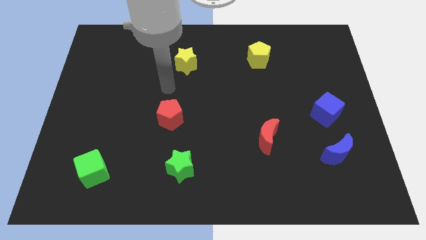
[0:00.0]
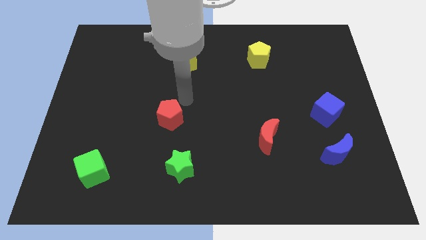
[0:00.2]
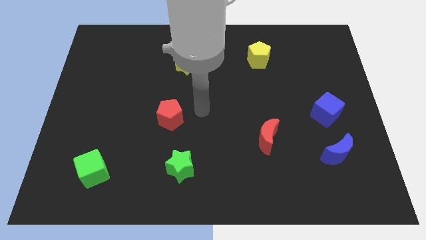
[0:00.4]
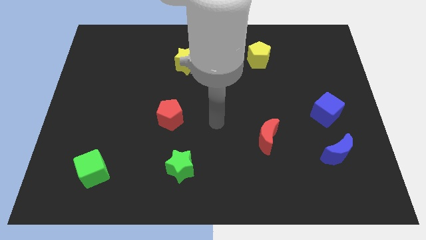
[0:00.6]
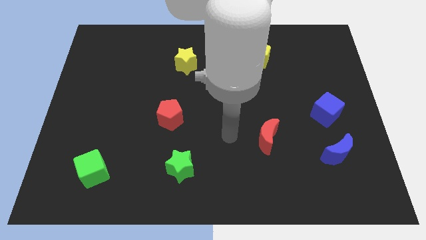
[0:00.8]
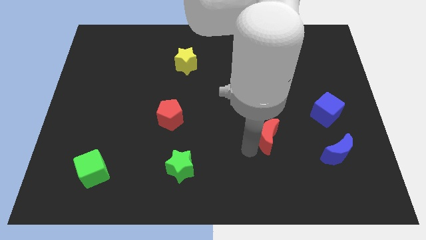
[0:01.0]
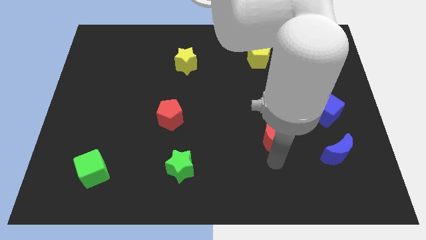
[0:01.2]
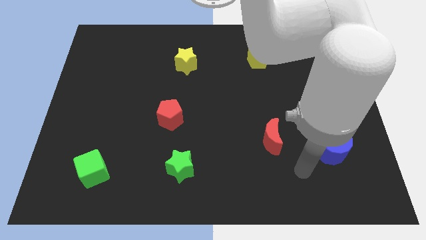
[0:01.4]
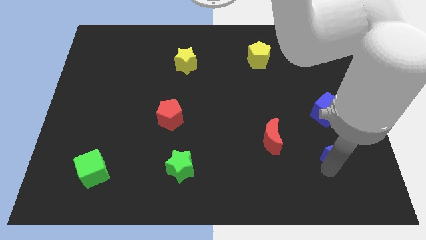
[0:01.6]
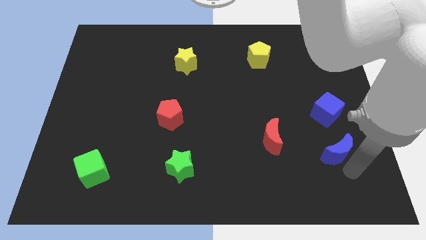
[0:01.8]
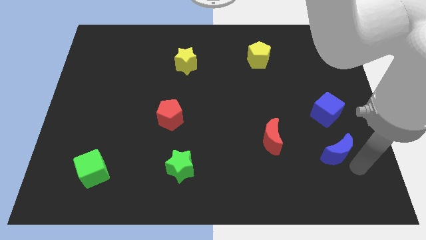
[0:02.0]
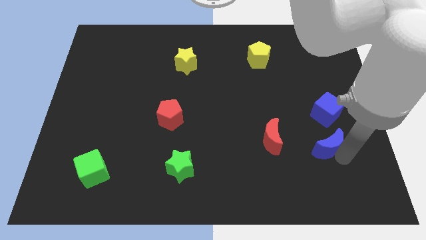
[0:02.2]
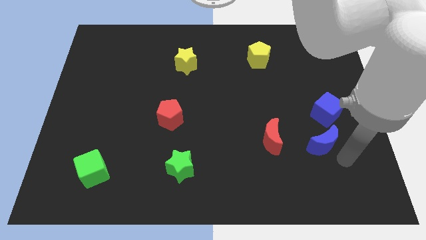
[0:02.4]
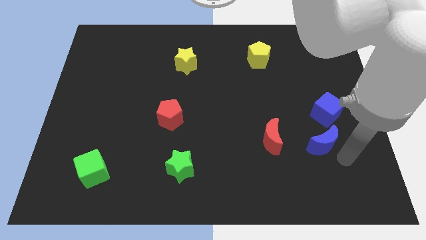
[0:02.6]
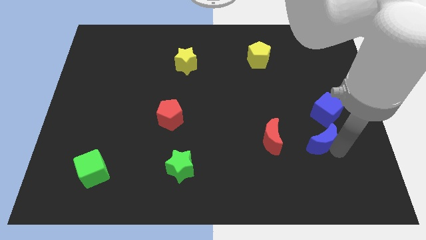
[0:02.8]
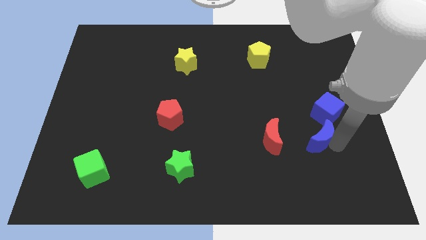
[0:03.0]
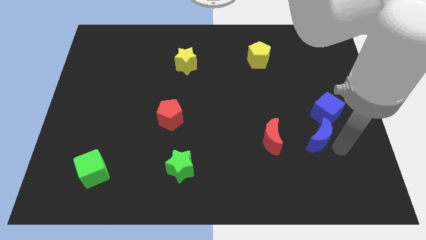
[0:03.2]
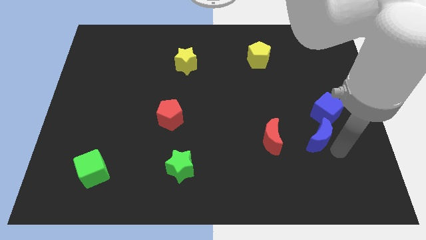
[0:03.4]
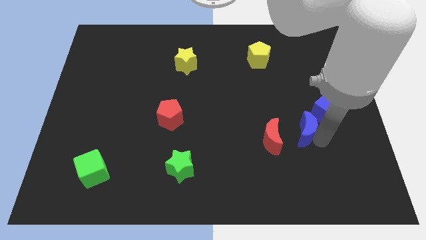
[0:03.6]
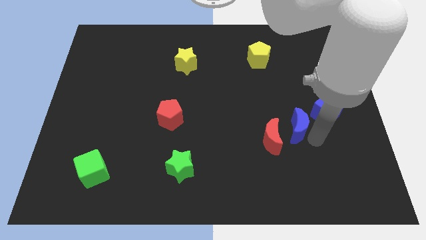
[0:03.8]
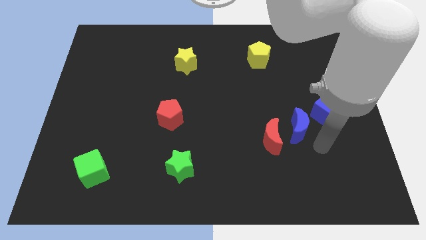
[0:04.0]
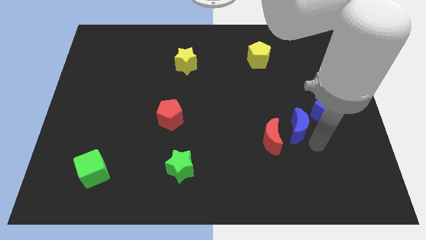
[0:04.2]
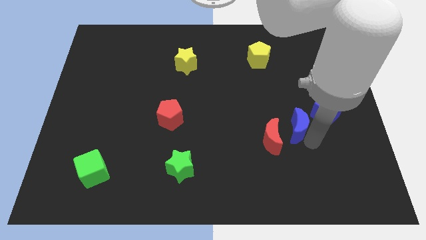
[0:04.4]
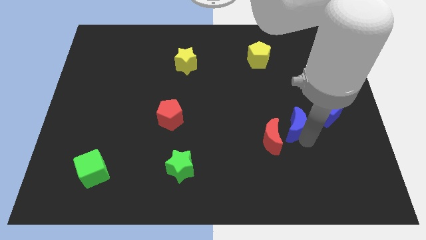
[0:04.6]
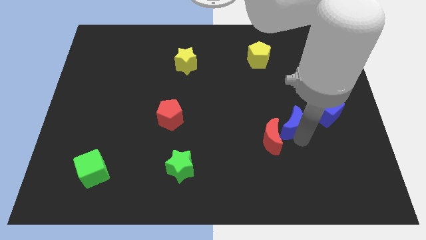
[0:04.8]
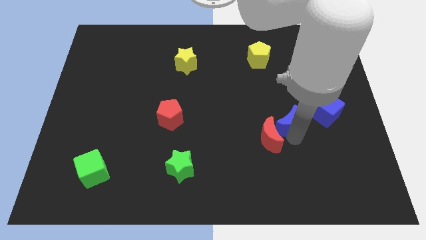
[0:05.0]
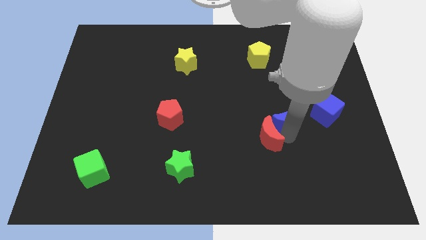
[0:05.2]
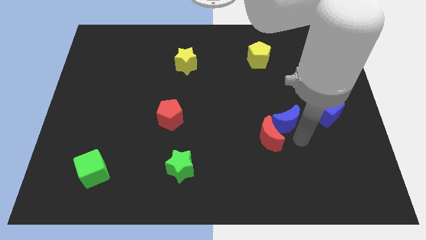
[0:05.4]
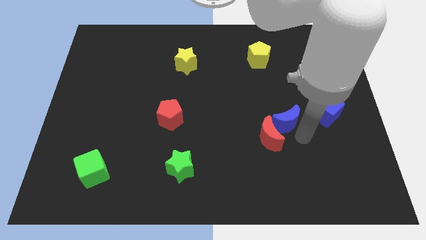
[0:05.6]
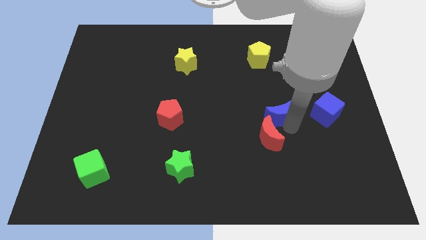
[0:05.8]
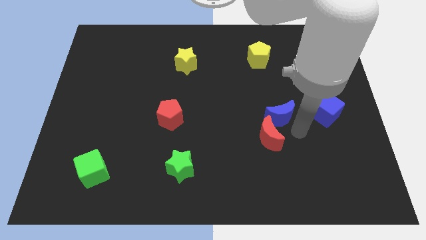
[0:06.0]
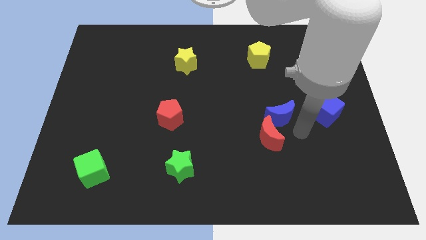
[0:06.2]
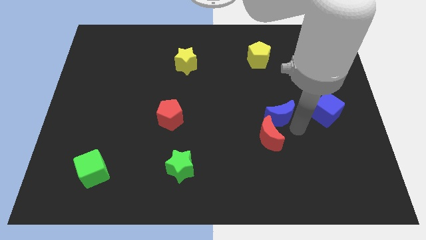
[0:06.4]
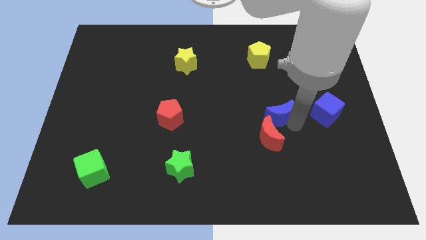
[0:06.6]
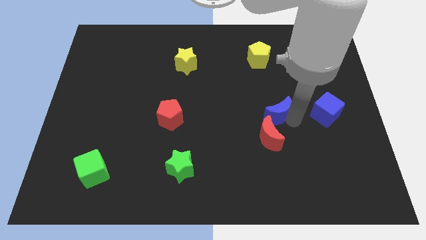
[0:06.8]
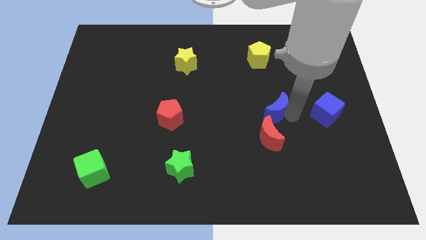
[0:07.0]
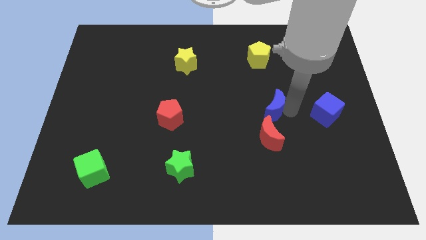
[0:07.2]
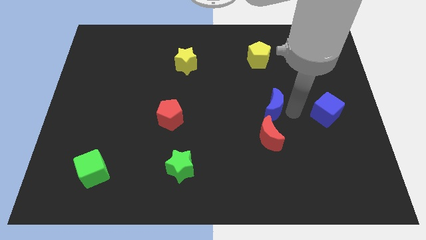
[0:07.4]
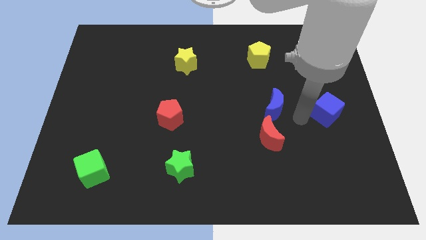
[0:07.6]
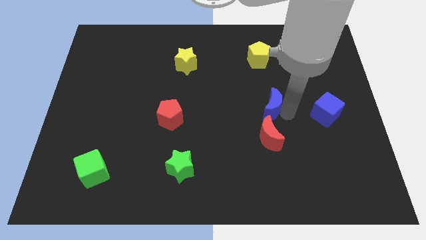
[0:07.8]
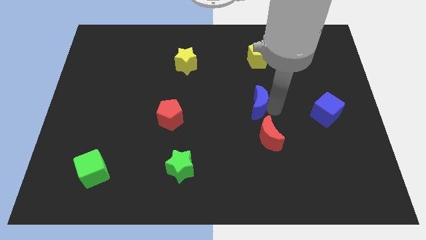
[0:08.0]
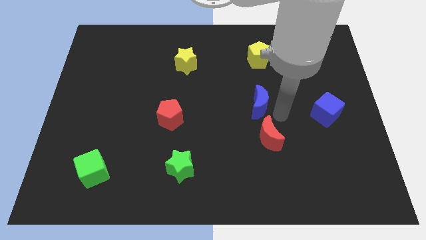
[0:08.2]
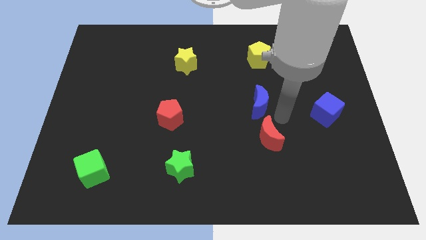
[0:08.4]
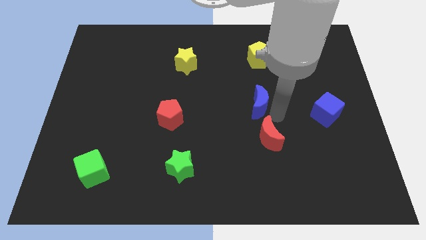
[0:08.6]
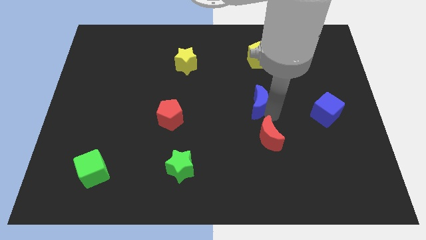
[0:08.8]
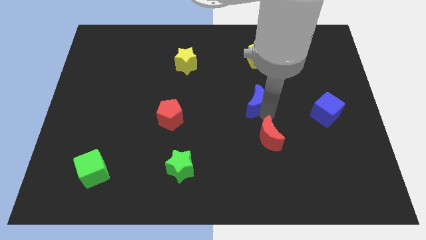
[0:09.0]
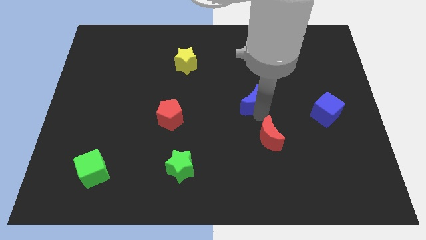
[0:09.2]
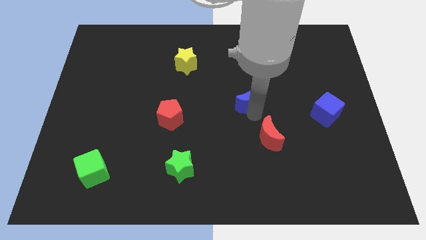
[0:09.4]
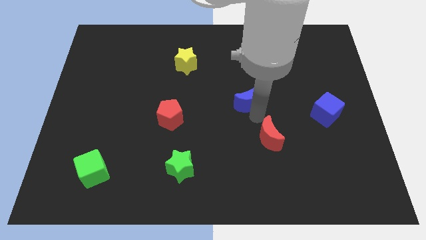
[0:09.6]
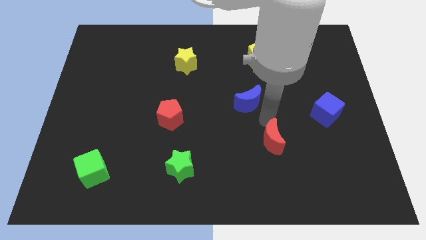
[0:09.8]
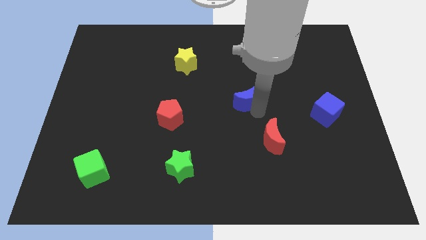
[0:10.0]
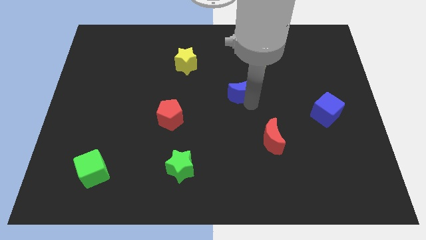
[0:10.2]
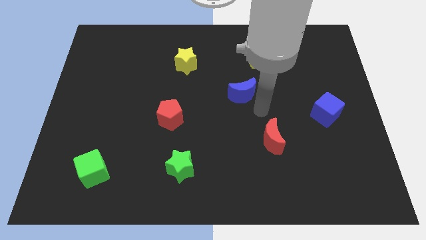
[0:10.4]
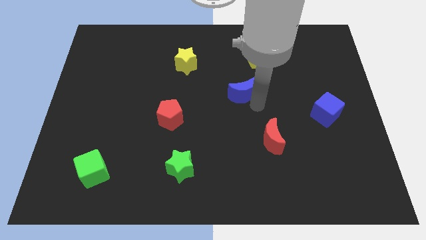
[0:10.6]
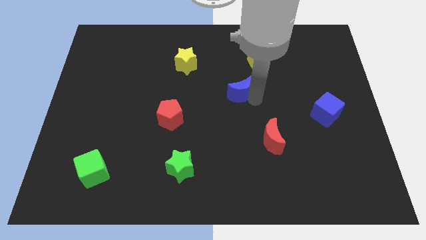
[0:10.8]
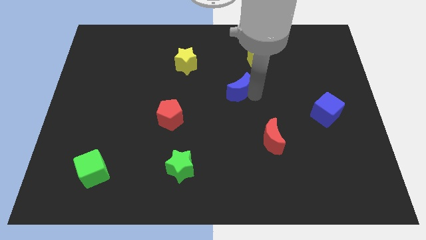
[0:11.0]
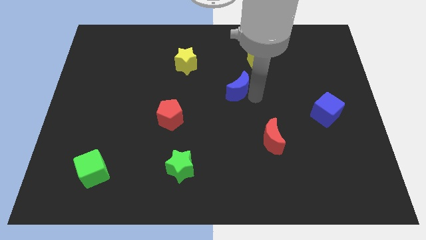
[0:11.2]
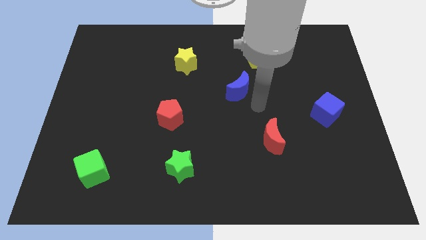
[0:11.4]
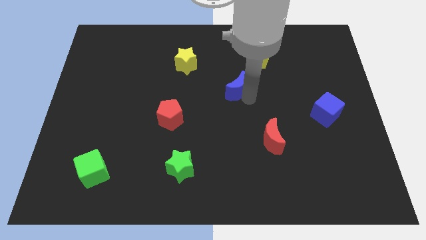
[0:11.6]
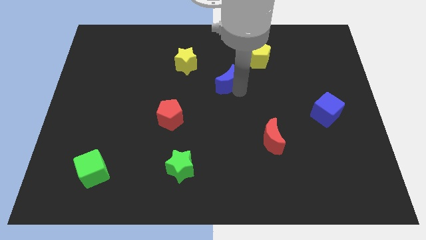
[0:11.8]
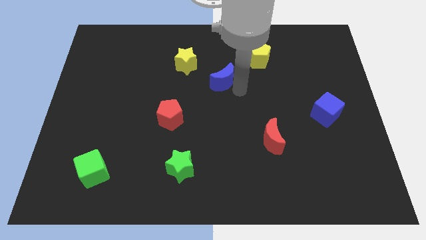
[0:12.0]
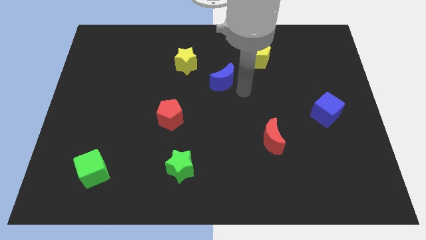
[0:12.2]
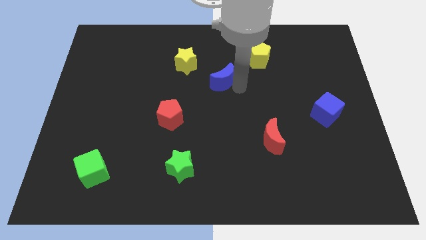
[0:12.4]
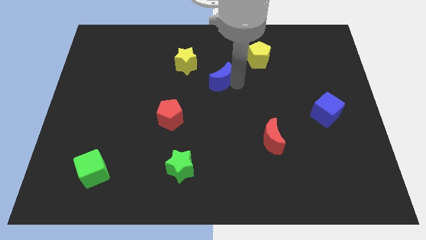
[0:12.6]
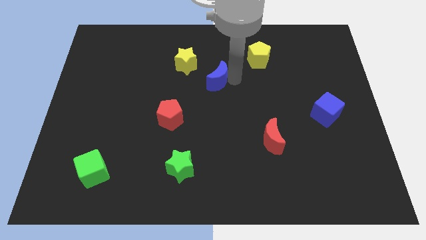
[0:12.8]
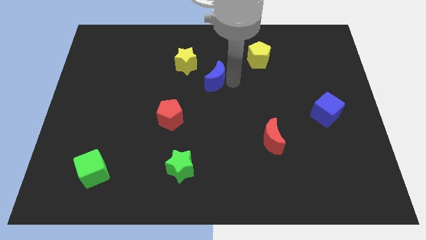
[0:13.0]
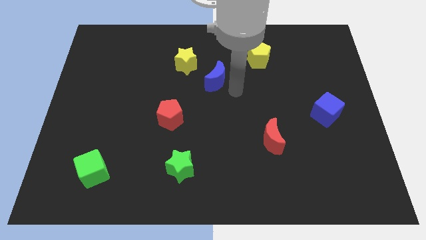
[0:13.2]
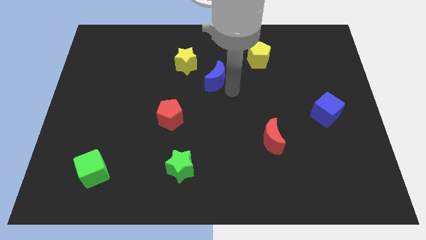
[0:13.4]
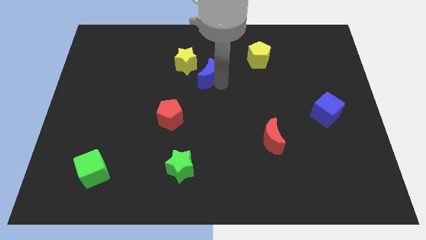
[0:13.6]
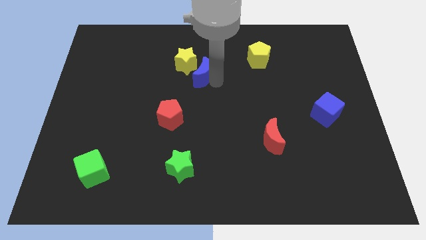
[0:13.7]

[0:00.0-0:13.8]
move the blue moon towards the yellow star
